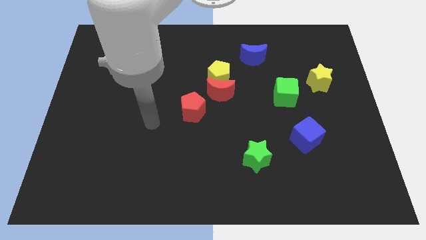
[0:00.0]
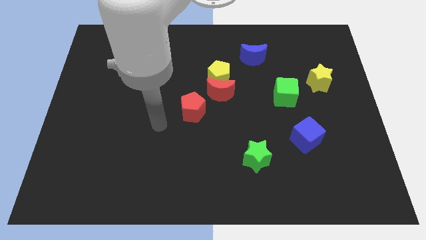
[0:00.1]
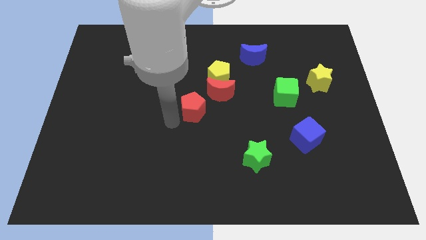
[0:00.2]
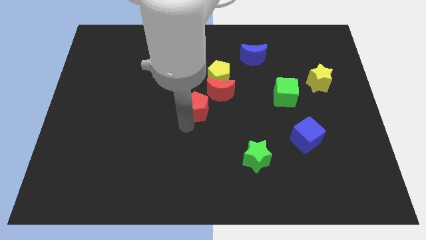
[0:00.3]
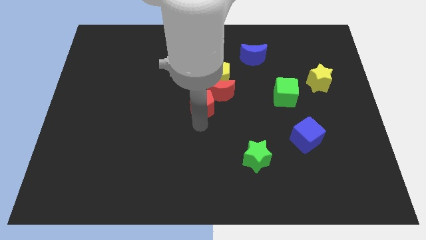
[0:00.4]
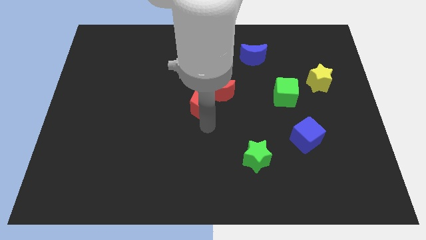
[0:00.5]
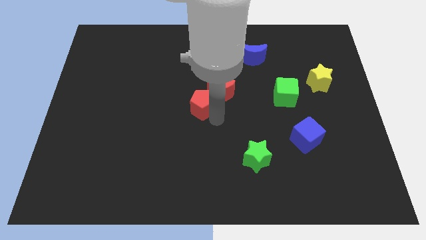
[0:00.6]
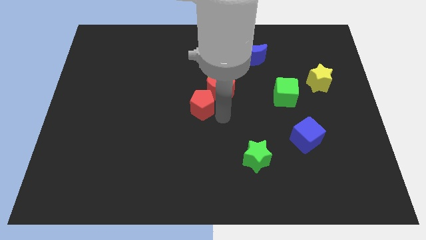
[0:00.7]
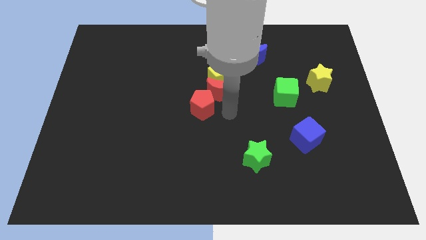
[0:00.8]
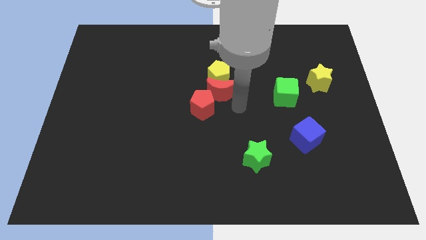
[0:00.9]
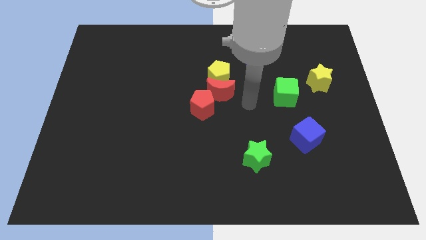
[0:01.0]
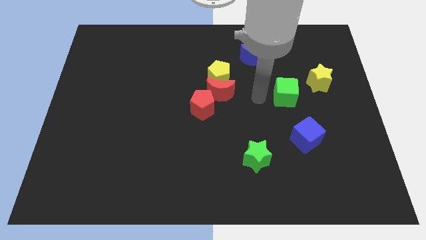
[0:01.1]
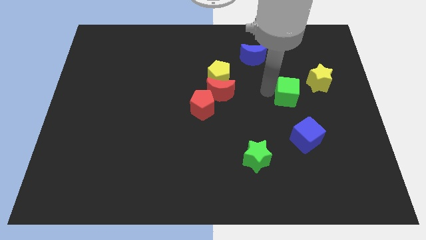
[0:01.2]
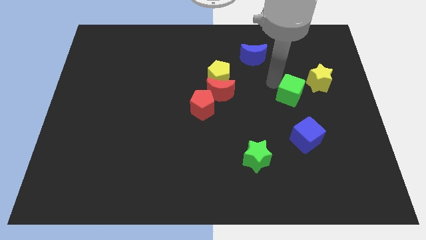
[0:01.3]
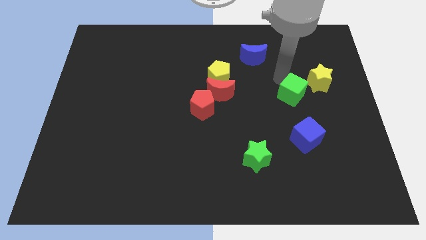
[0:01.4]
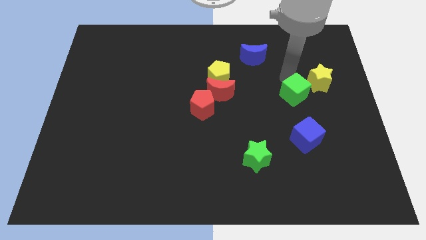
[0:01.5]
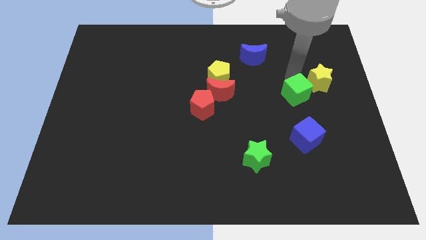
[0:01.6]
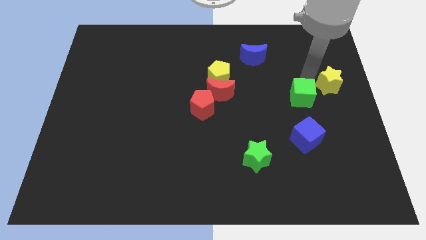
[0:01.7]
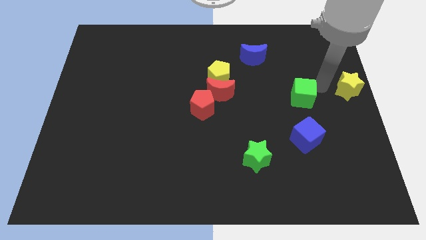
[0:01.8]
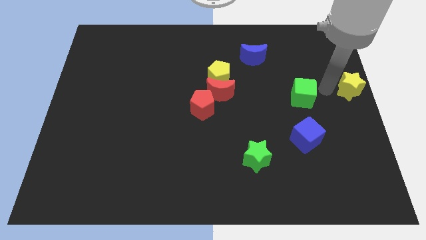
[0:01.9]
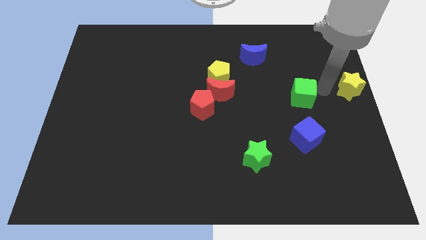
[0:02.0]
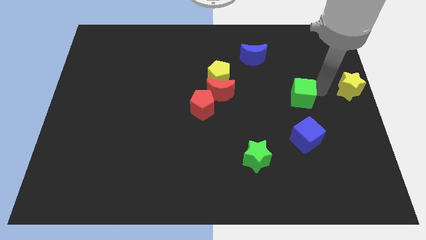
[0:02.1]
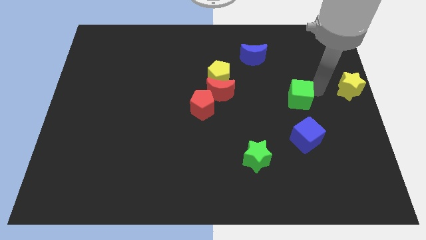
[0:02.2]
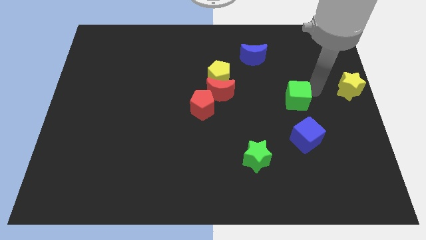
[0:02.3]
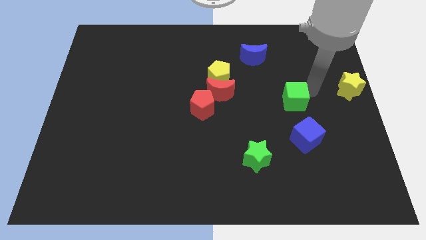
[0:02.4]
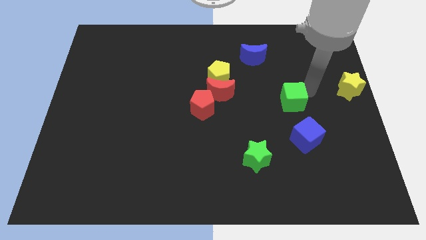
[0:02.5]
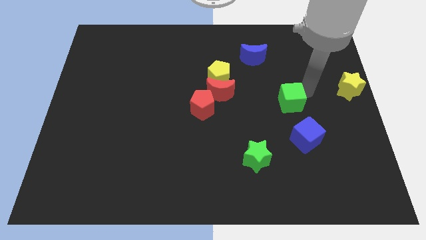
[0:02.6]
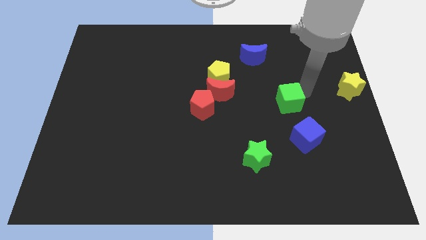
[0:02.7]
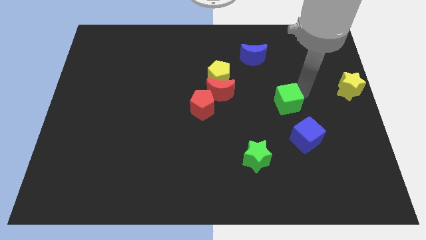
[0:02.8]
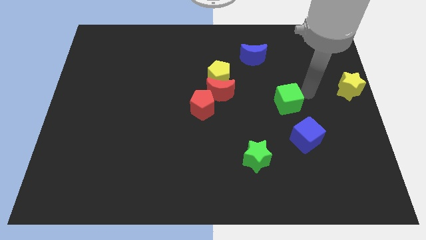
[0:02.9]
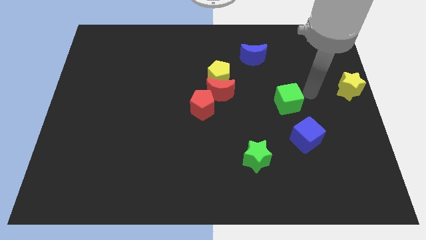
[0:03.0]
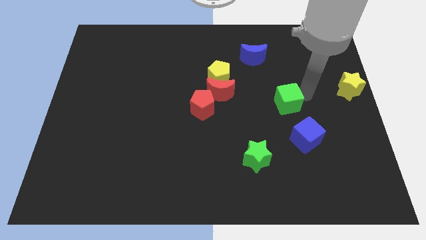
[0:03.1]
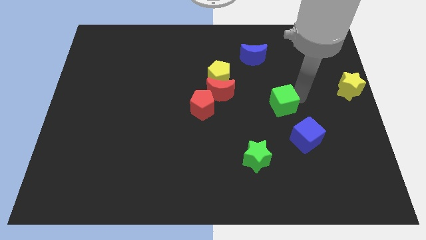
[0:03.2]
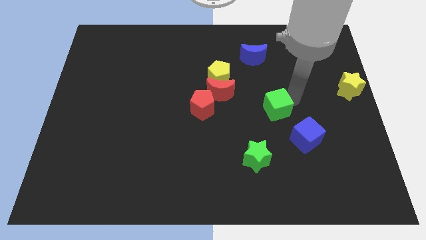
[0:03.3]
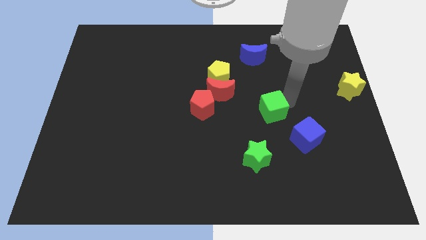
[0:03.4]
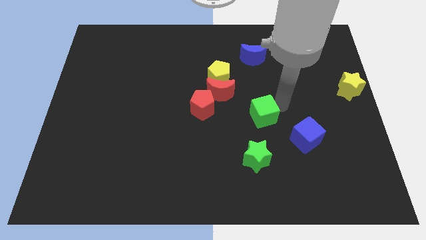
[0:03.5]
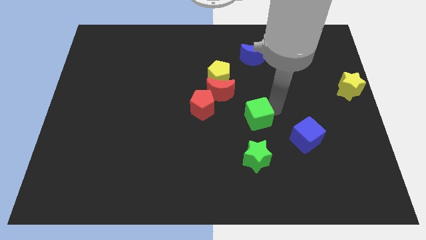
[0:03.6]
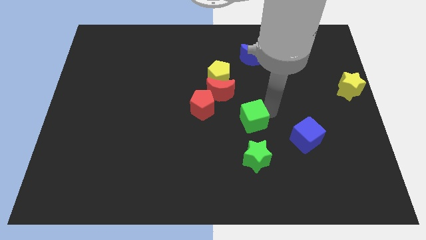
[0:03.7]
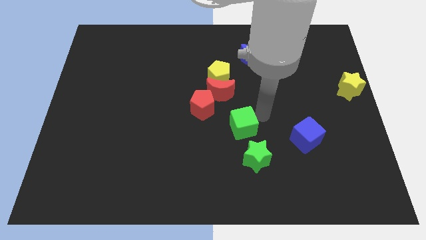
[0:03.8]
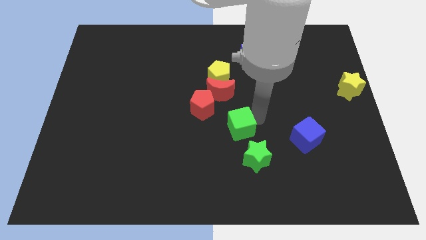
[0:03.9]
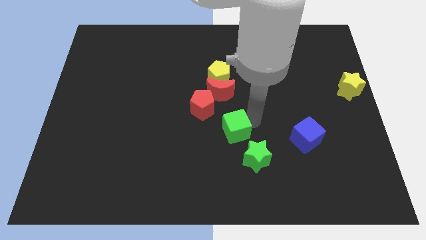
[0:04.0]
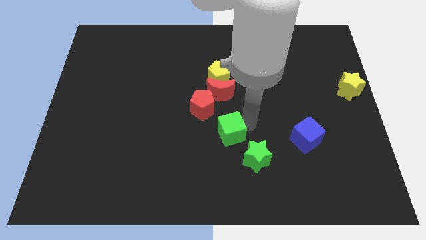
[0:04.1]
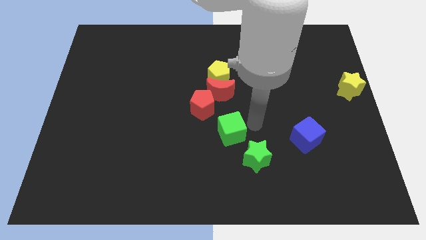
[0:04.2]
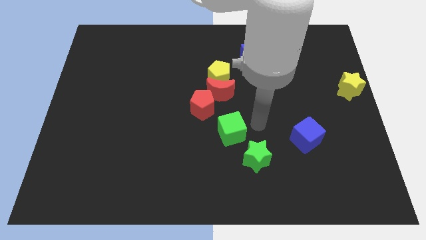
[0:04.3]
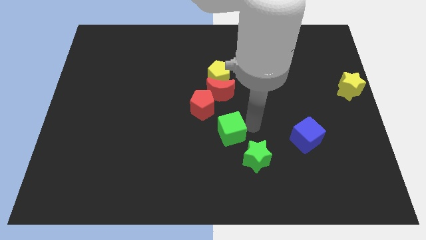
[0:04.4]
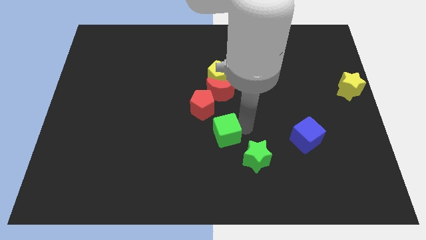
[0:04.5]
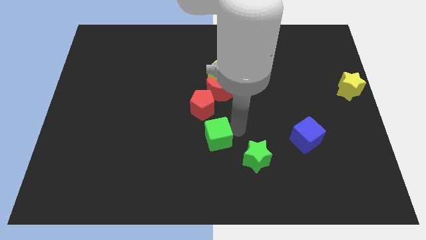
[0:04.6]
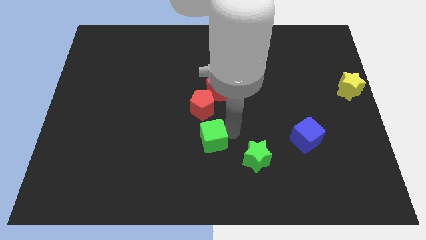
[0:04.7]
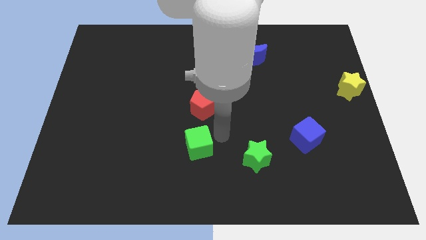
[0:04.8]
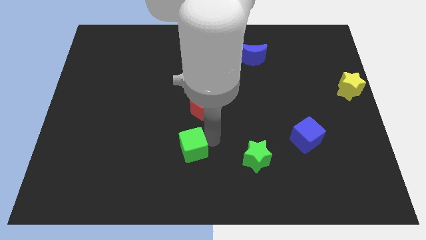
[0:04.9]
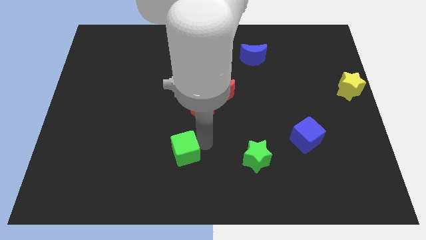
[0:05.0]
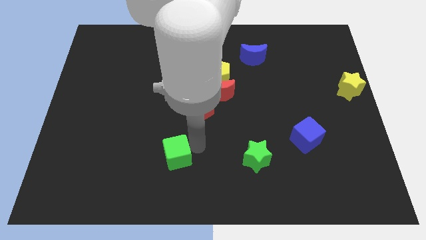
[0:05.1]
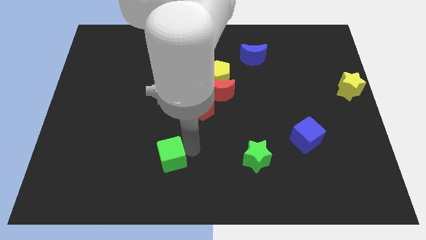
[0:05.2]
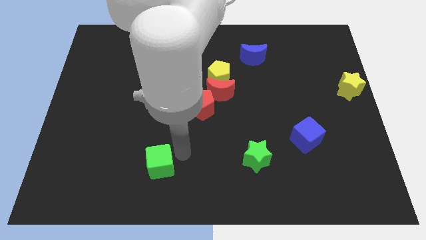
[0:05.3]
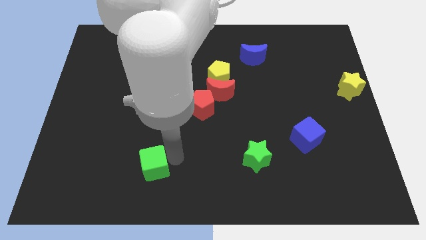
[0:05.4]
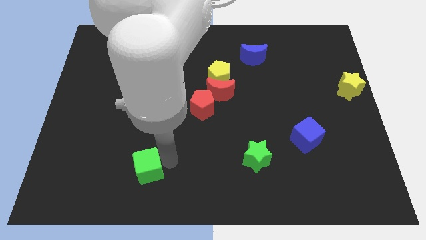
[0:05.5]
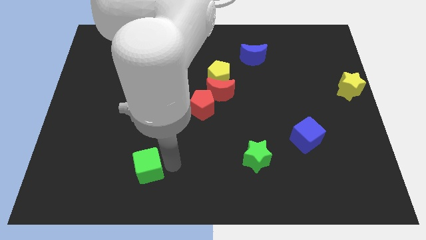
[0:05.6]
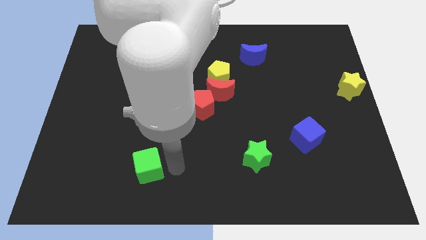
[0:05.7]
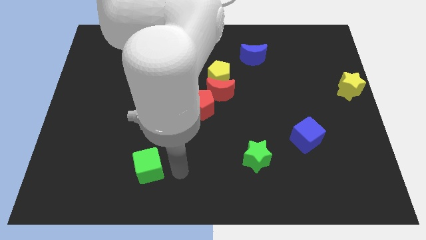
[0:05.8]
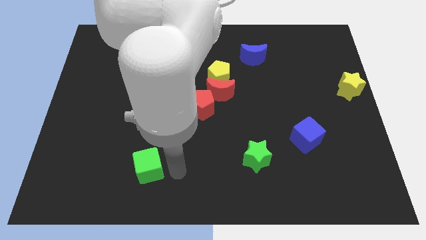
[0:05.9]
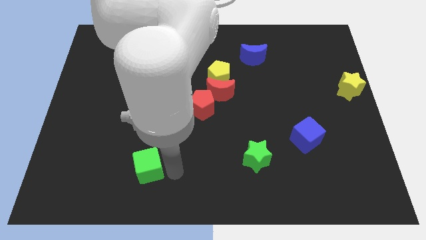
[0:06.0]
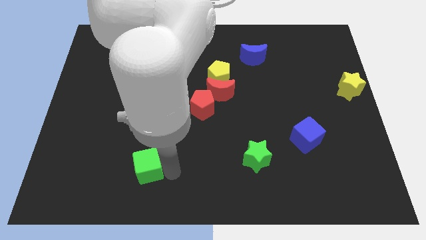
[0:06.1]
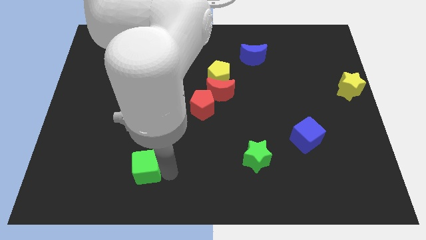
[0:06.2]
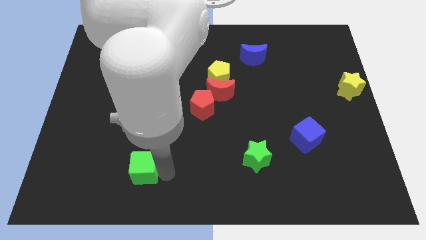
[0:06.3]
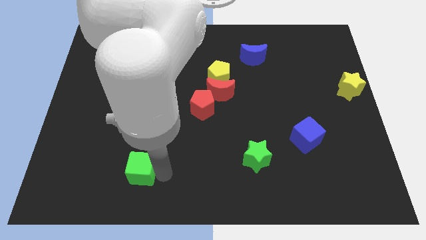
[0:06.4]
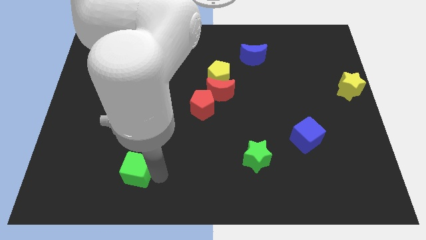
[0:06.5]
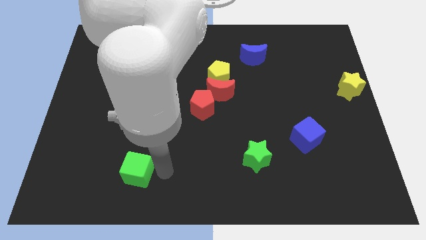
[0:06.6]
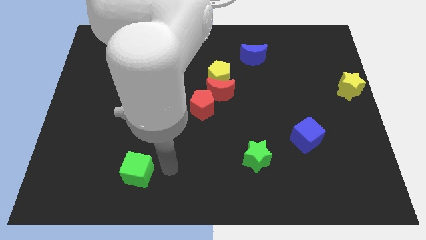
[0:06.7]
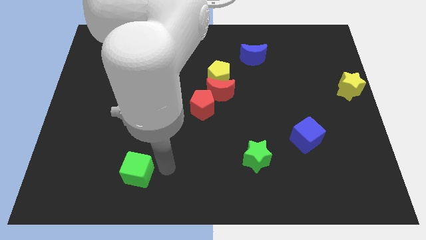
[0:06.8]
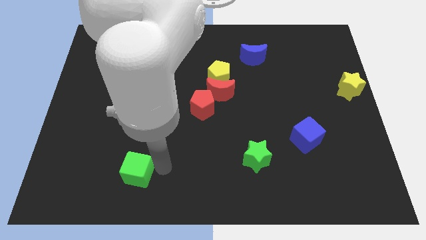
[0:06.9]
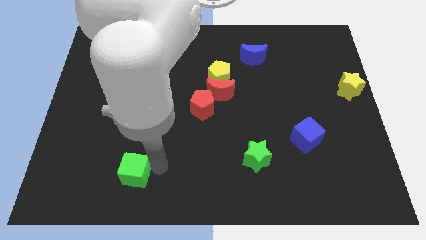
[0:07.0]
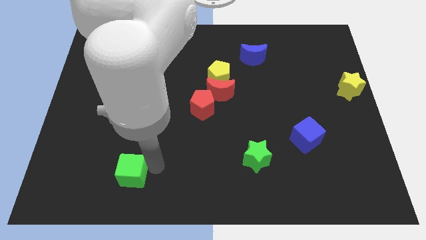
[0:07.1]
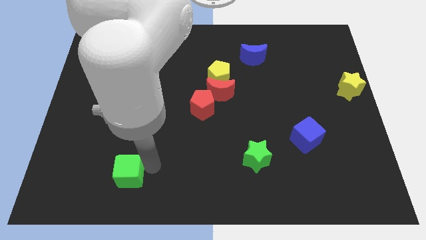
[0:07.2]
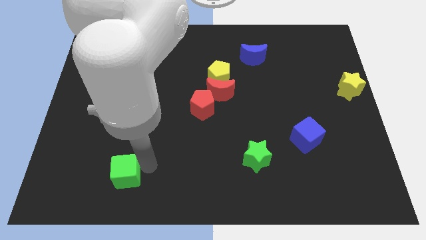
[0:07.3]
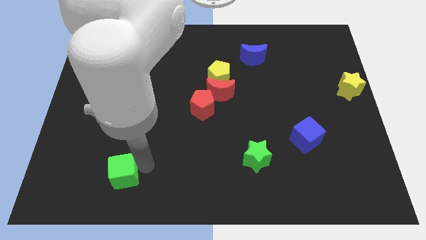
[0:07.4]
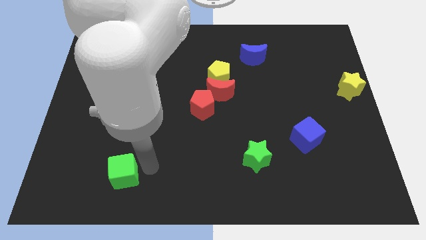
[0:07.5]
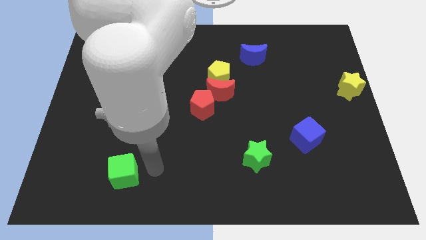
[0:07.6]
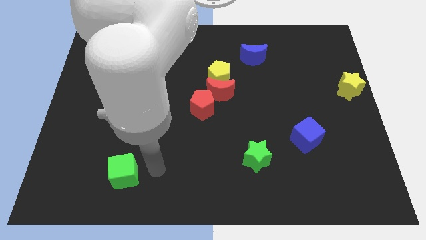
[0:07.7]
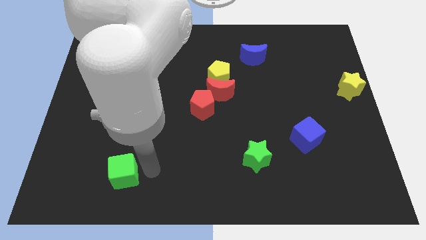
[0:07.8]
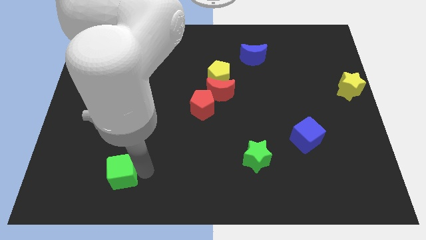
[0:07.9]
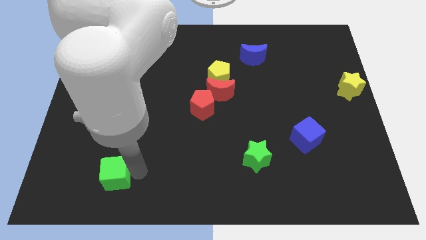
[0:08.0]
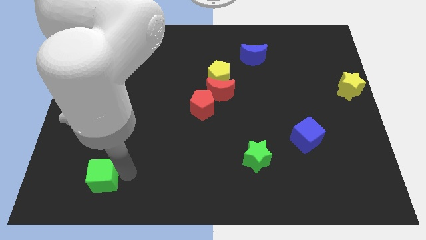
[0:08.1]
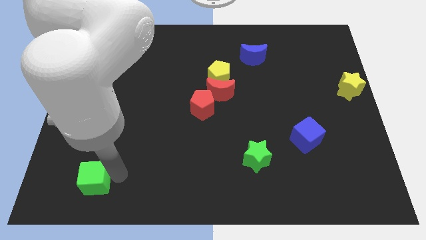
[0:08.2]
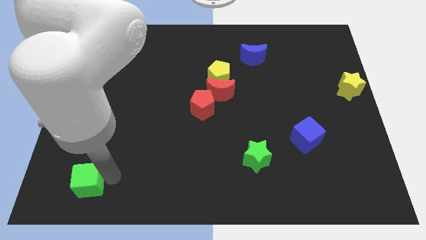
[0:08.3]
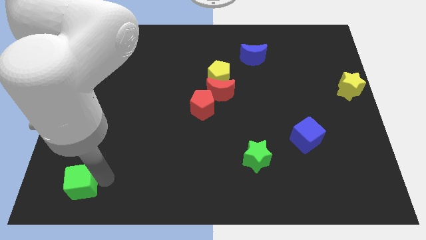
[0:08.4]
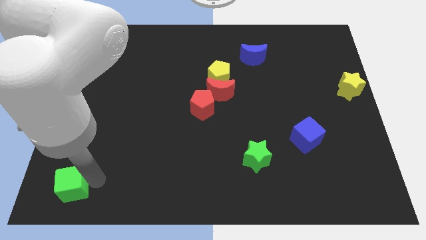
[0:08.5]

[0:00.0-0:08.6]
put the green cube to the bottom left of the board
